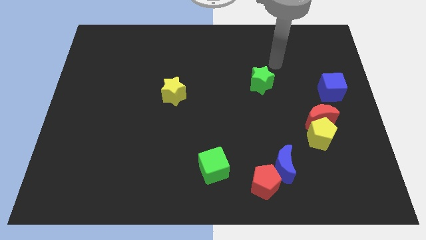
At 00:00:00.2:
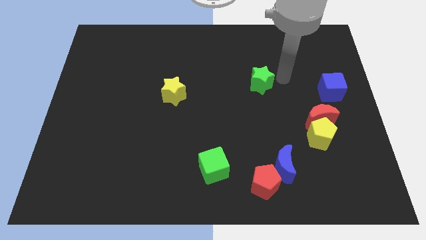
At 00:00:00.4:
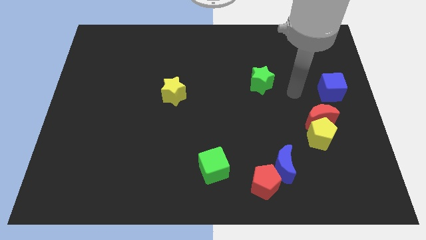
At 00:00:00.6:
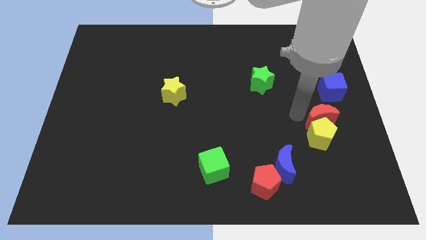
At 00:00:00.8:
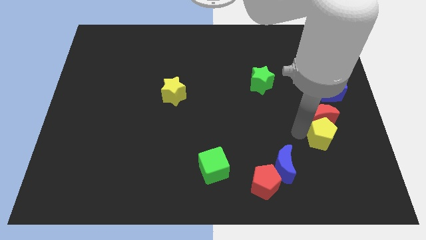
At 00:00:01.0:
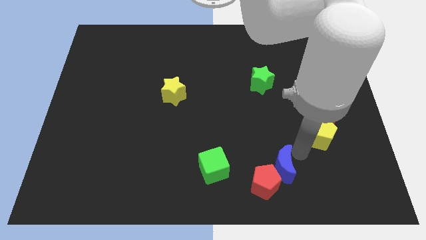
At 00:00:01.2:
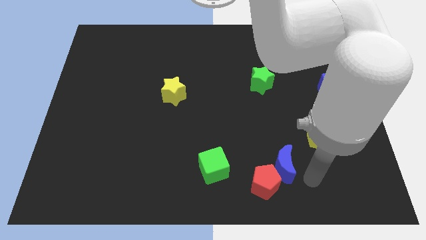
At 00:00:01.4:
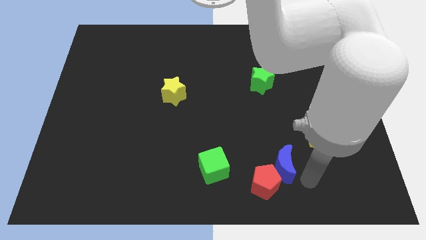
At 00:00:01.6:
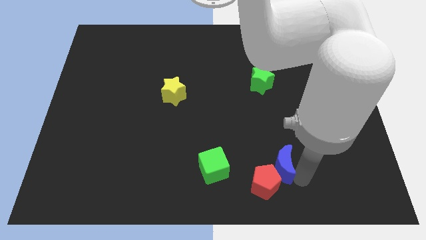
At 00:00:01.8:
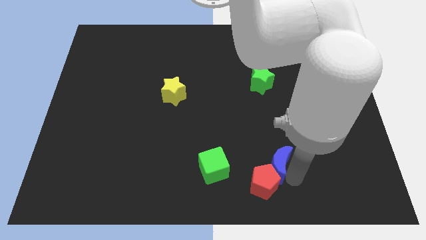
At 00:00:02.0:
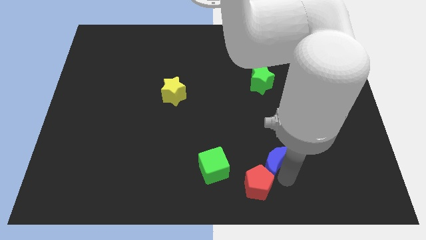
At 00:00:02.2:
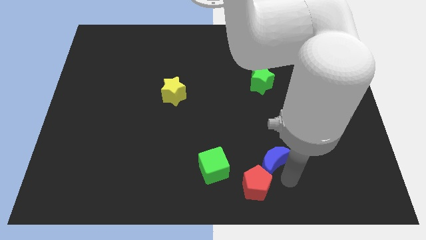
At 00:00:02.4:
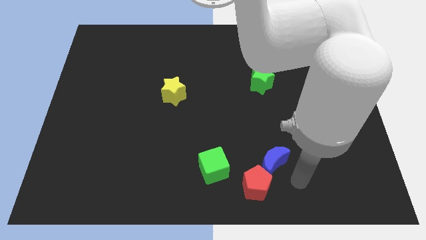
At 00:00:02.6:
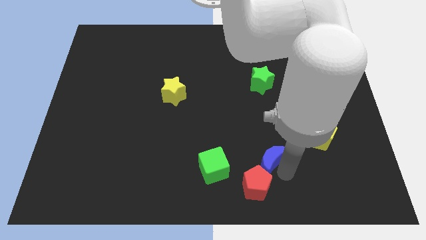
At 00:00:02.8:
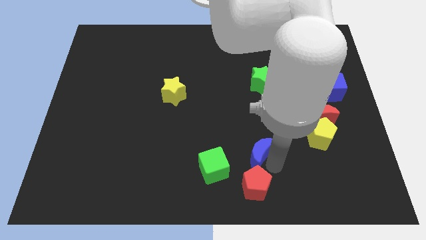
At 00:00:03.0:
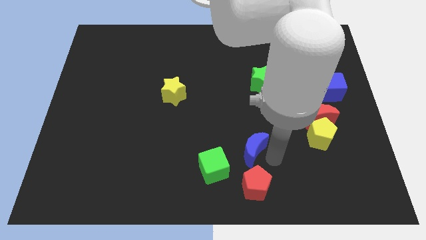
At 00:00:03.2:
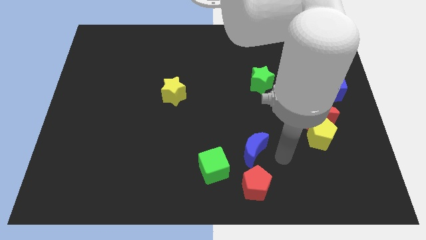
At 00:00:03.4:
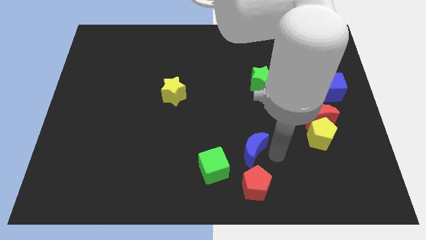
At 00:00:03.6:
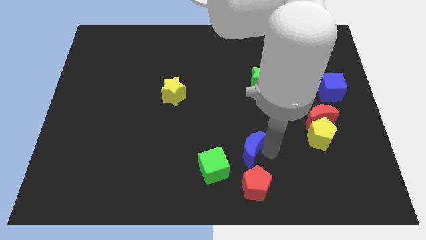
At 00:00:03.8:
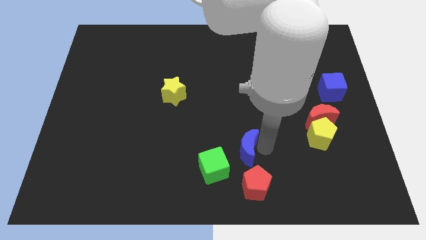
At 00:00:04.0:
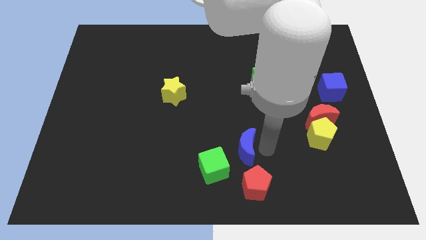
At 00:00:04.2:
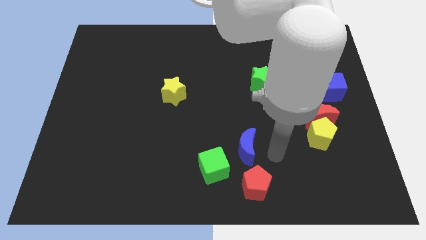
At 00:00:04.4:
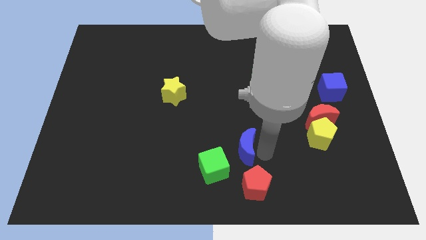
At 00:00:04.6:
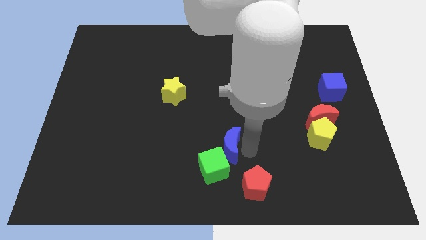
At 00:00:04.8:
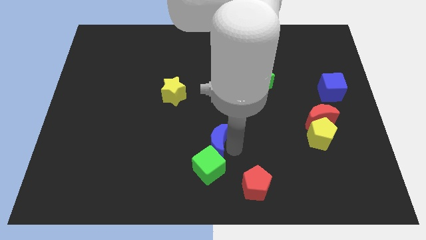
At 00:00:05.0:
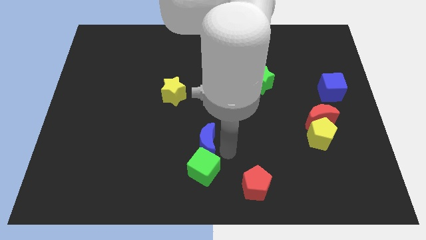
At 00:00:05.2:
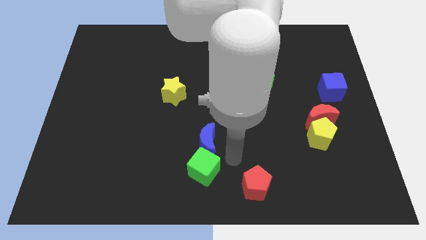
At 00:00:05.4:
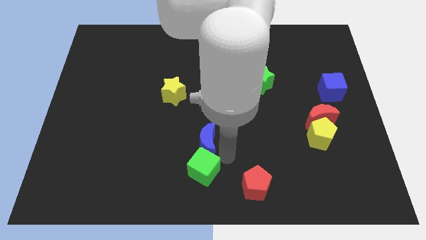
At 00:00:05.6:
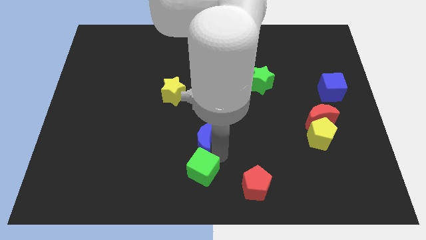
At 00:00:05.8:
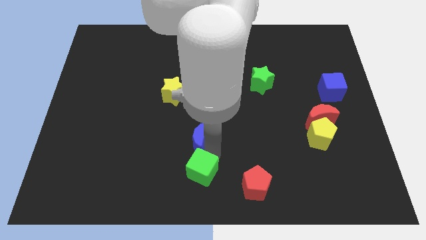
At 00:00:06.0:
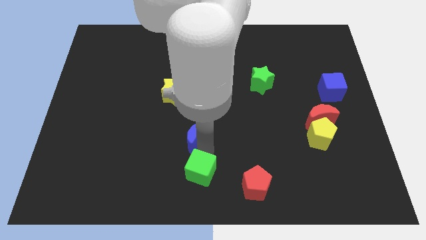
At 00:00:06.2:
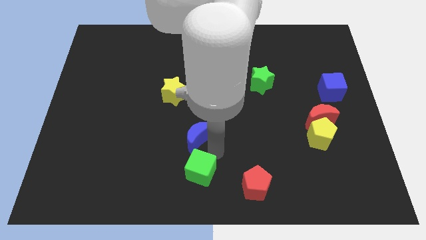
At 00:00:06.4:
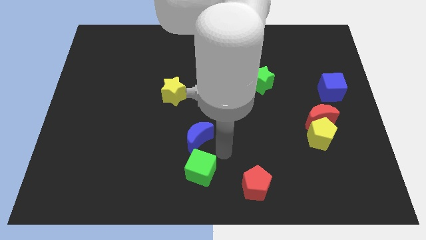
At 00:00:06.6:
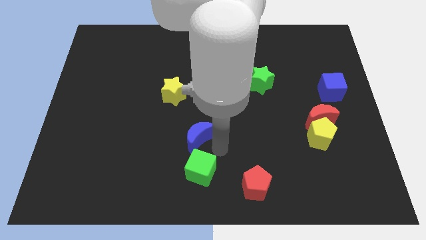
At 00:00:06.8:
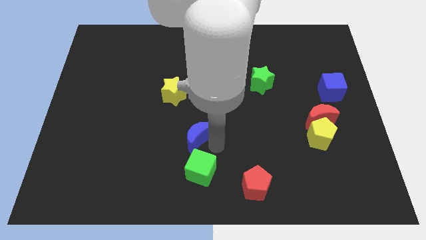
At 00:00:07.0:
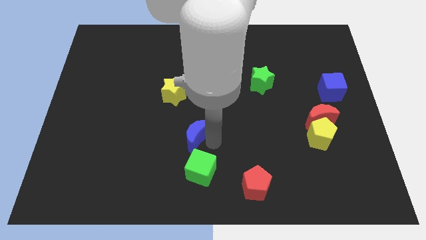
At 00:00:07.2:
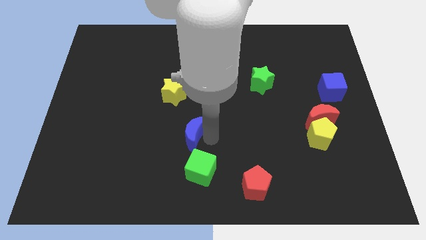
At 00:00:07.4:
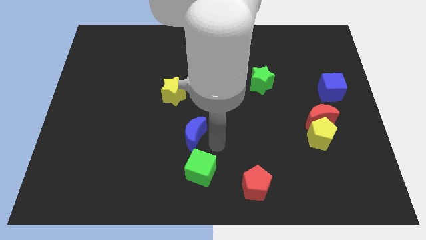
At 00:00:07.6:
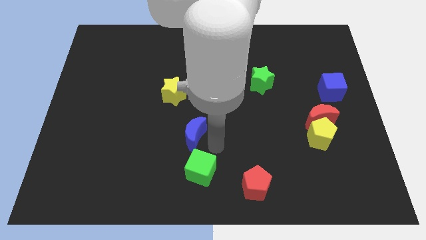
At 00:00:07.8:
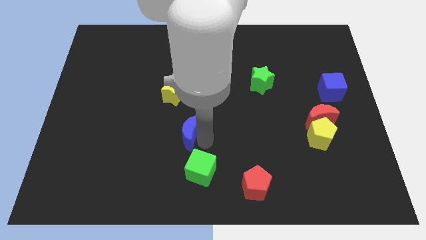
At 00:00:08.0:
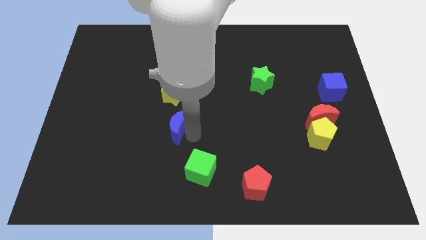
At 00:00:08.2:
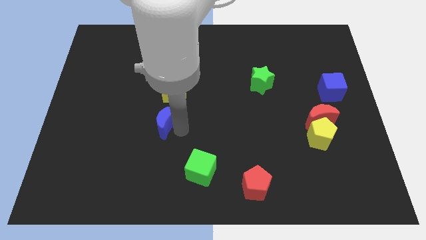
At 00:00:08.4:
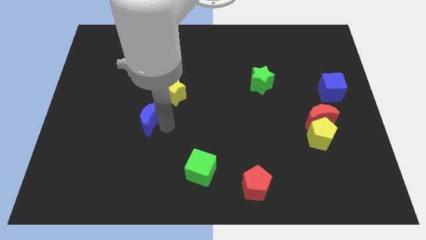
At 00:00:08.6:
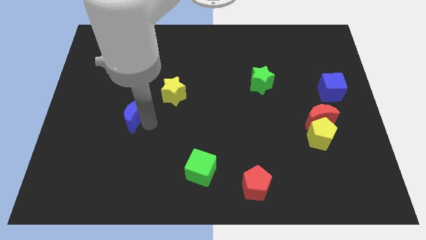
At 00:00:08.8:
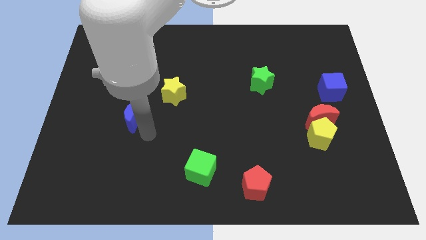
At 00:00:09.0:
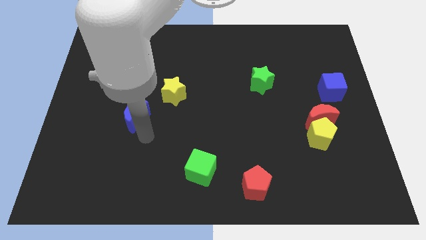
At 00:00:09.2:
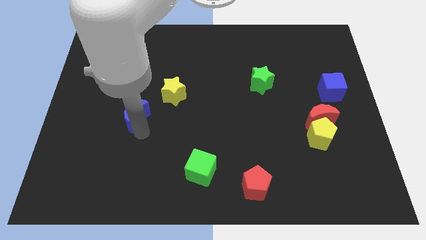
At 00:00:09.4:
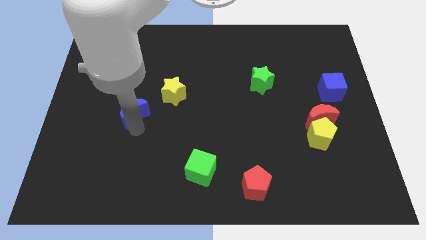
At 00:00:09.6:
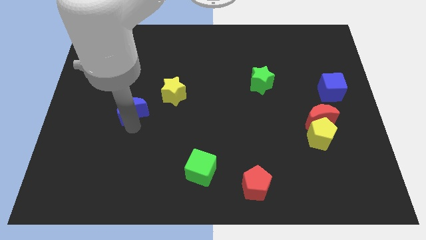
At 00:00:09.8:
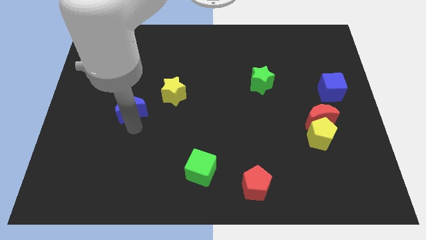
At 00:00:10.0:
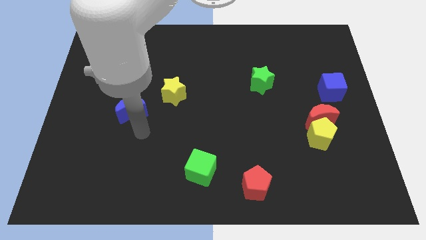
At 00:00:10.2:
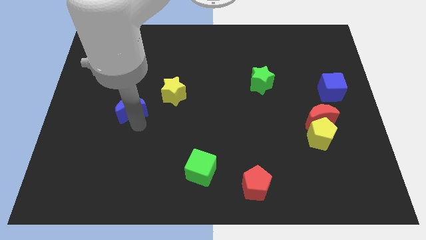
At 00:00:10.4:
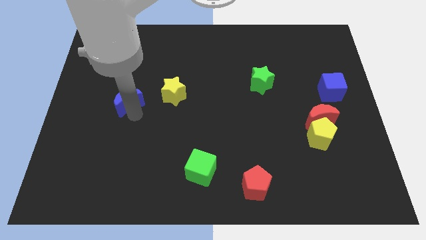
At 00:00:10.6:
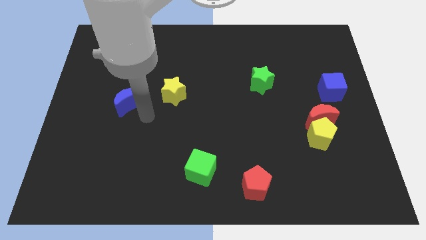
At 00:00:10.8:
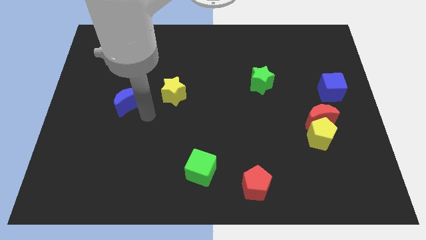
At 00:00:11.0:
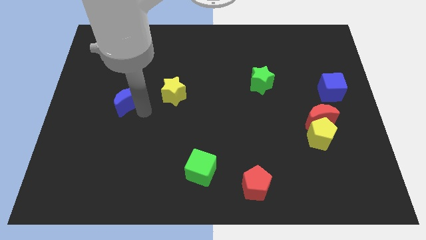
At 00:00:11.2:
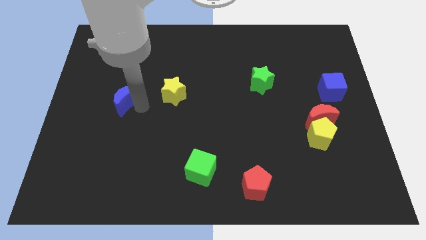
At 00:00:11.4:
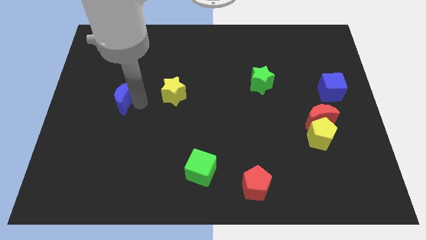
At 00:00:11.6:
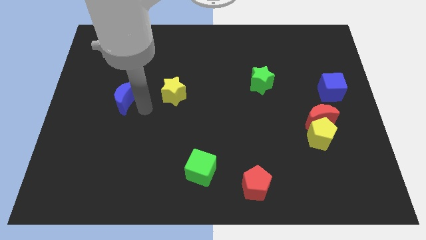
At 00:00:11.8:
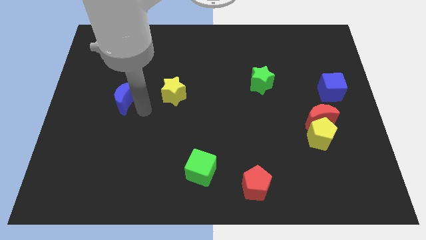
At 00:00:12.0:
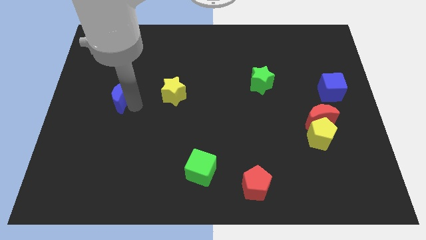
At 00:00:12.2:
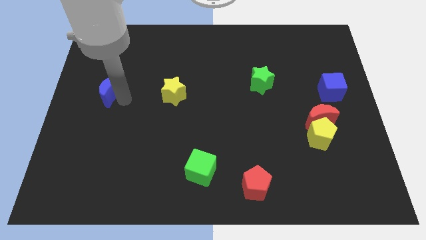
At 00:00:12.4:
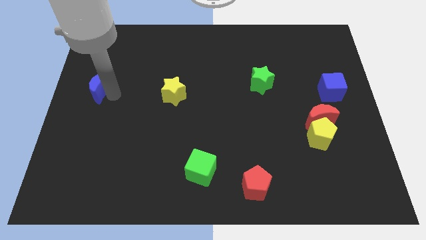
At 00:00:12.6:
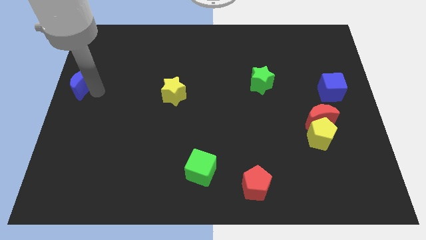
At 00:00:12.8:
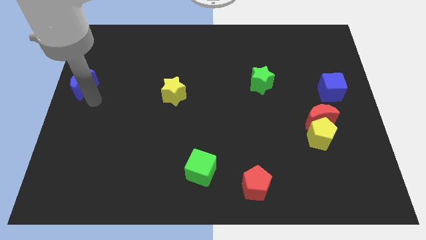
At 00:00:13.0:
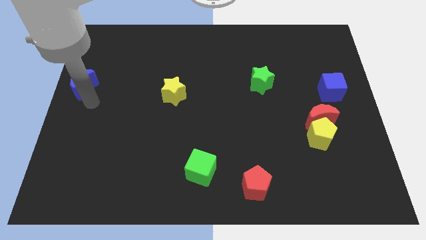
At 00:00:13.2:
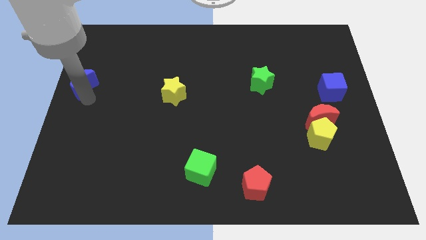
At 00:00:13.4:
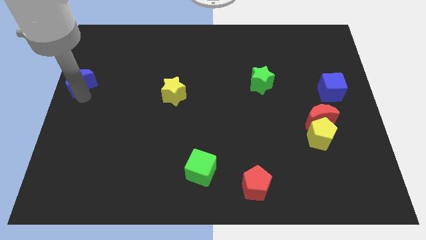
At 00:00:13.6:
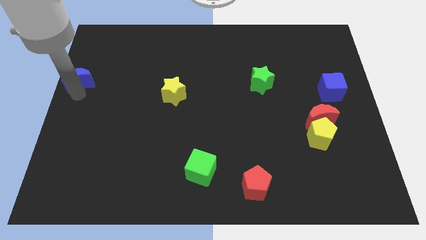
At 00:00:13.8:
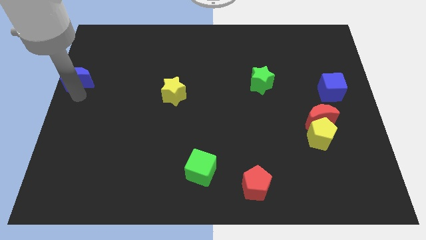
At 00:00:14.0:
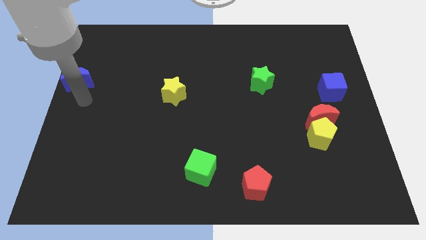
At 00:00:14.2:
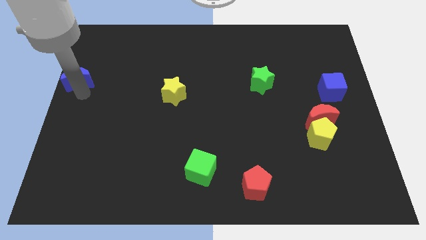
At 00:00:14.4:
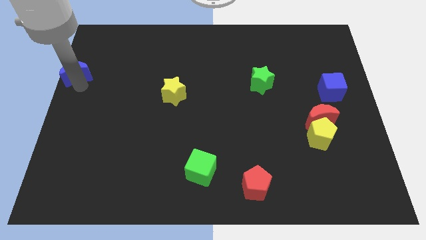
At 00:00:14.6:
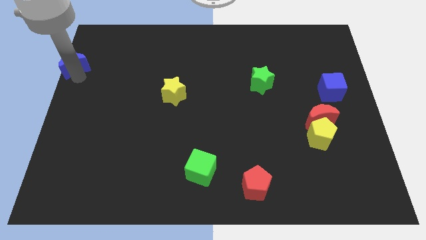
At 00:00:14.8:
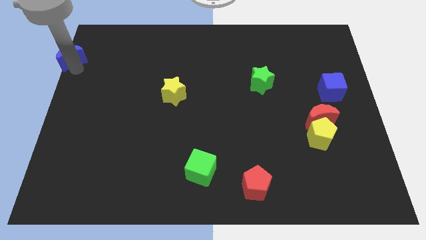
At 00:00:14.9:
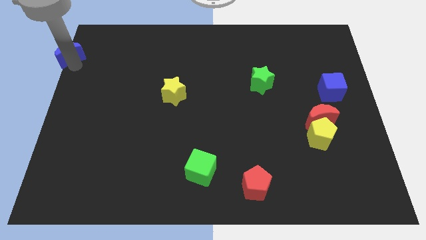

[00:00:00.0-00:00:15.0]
slide the blue moon to the top left of the board
